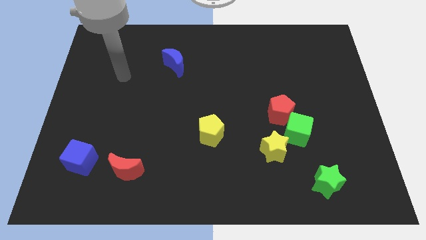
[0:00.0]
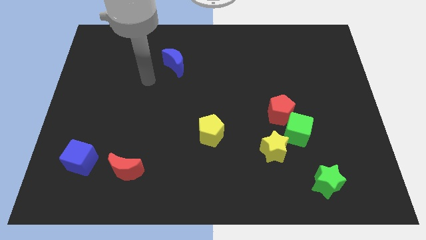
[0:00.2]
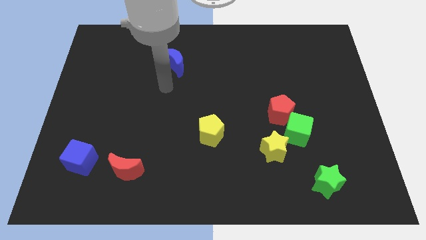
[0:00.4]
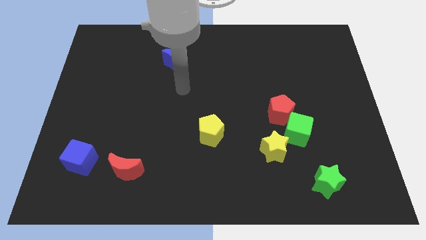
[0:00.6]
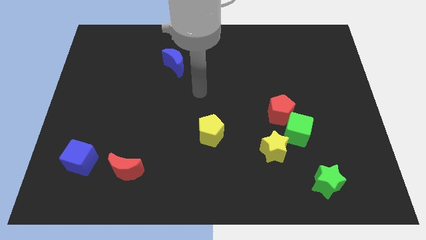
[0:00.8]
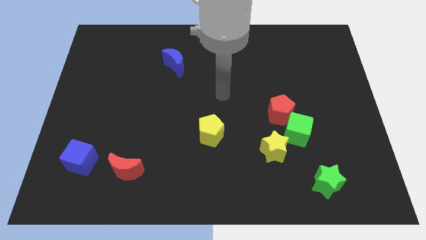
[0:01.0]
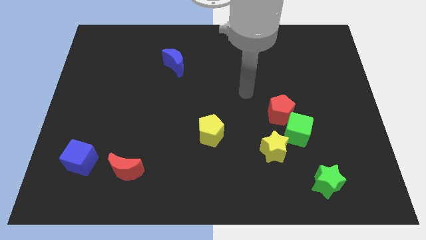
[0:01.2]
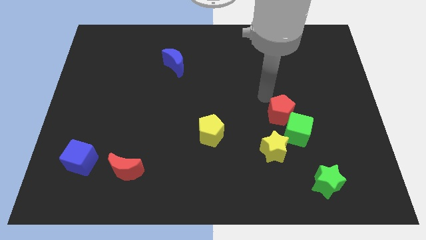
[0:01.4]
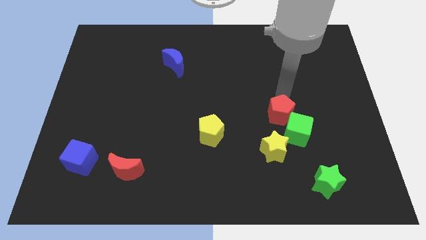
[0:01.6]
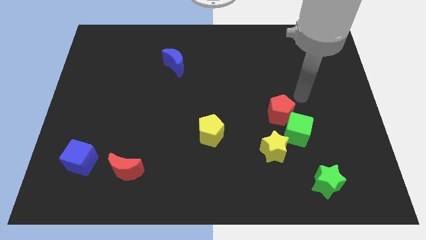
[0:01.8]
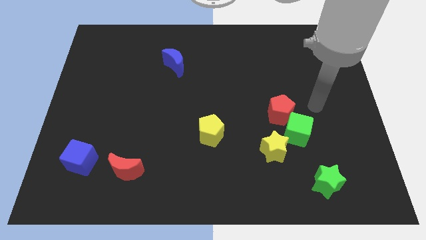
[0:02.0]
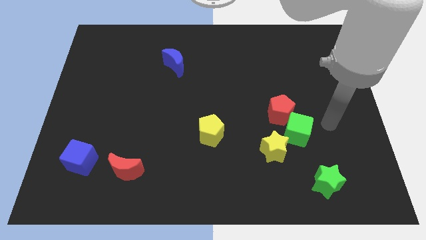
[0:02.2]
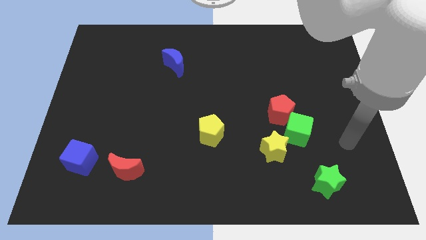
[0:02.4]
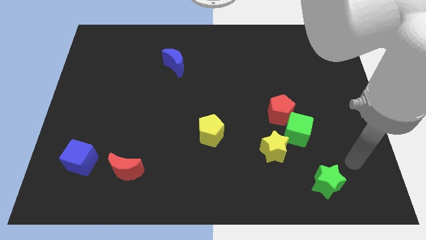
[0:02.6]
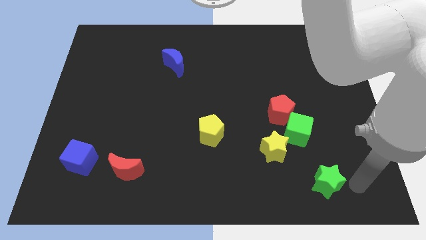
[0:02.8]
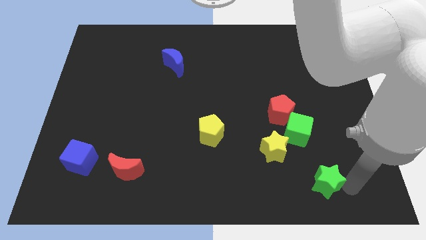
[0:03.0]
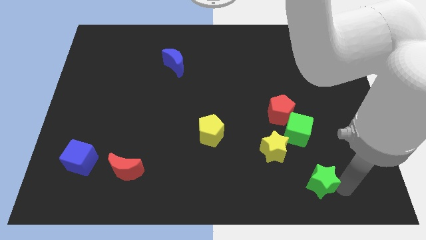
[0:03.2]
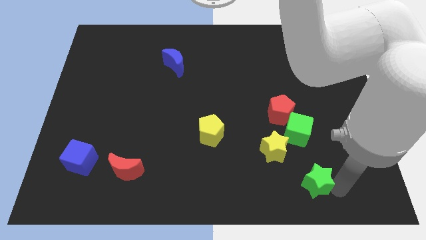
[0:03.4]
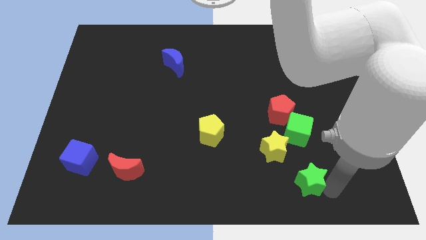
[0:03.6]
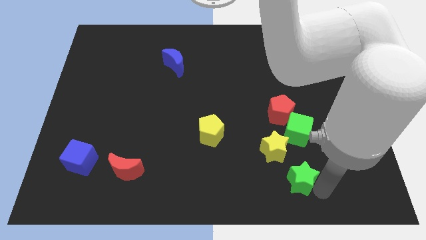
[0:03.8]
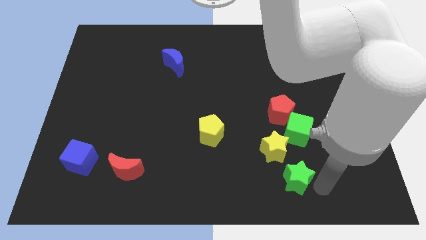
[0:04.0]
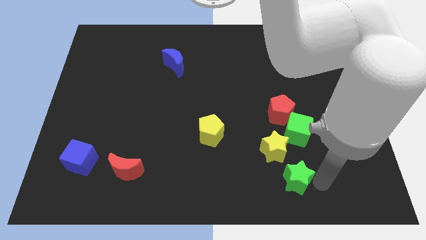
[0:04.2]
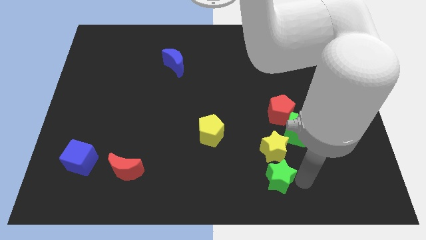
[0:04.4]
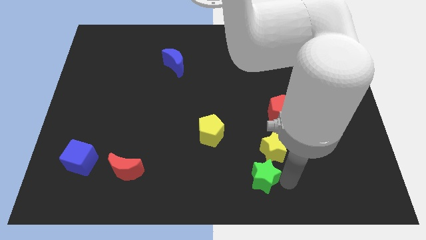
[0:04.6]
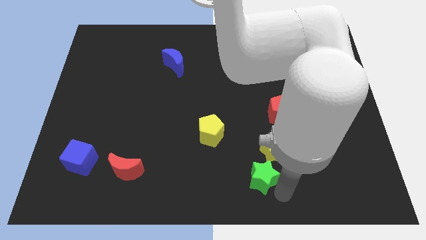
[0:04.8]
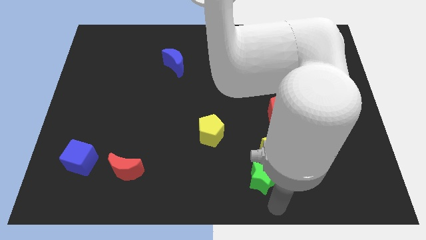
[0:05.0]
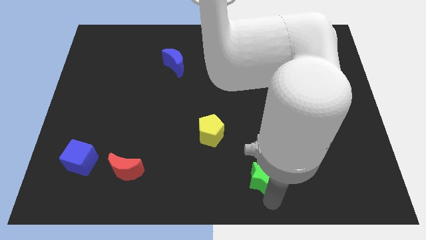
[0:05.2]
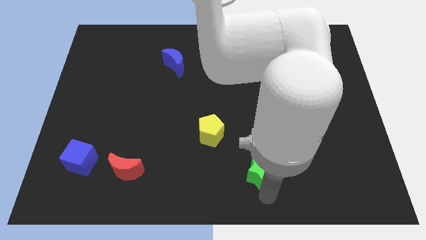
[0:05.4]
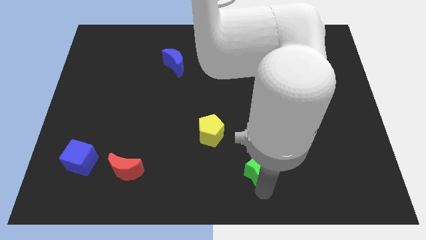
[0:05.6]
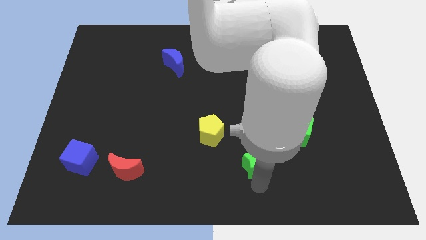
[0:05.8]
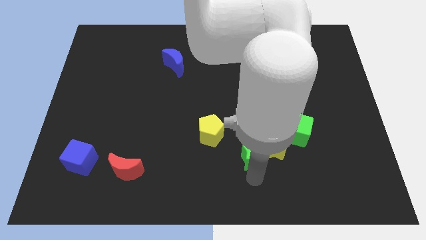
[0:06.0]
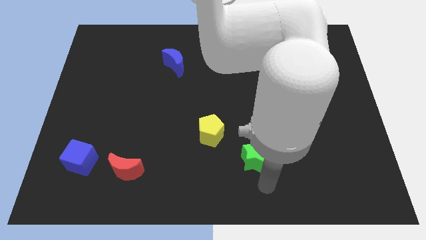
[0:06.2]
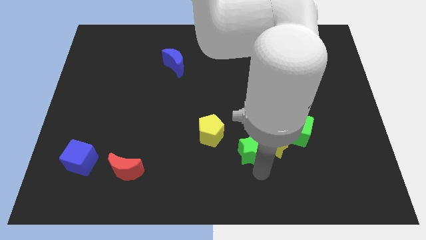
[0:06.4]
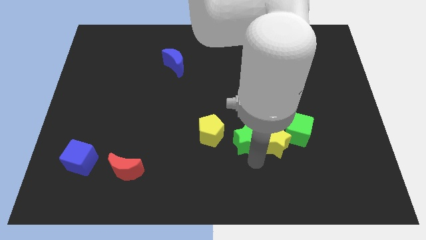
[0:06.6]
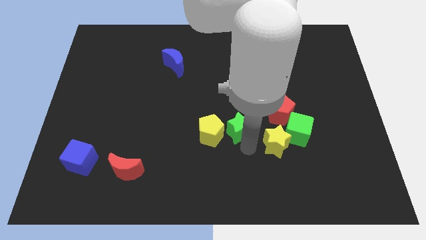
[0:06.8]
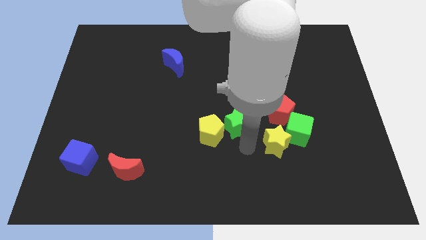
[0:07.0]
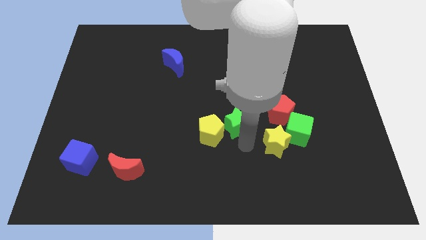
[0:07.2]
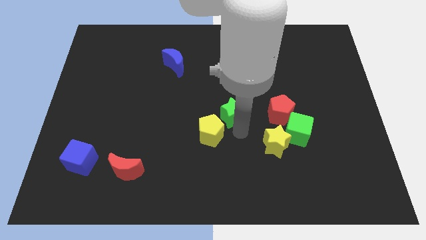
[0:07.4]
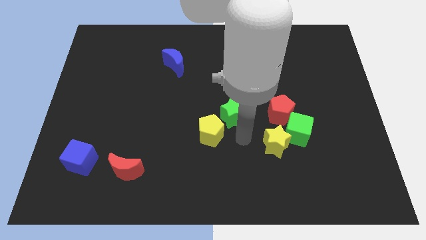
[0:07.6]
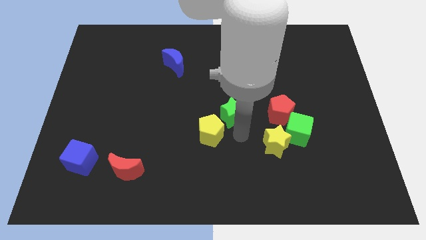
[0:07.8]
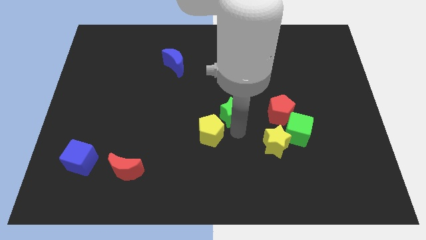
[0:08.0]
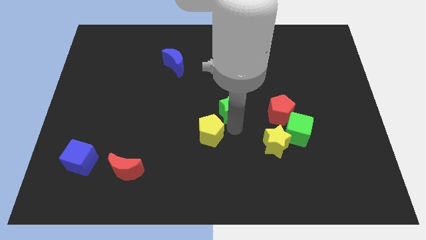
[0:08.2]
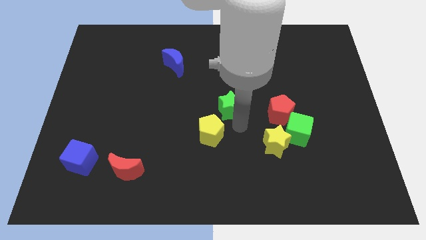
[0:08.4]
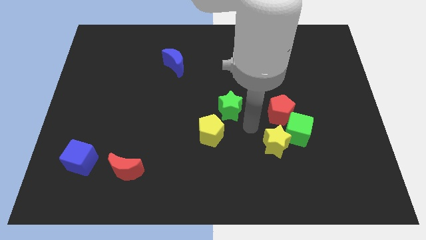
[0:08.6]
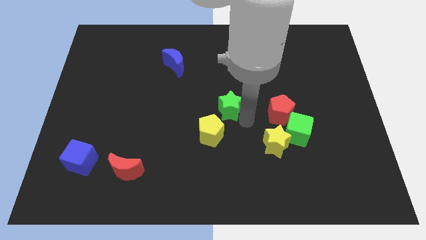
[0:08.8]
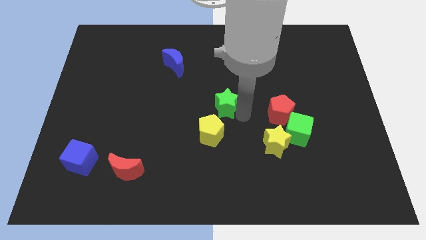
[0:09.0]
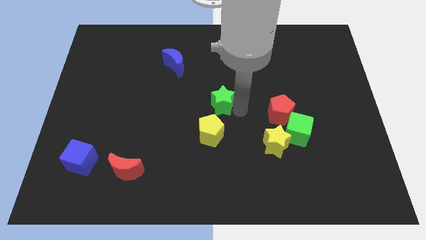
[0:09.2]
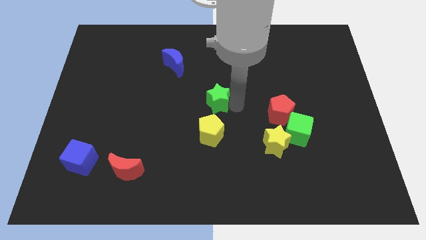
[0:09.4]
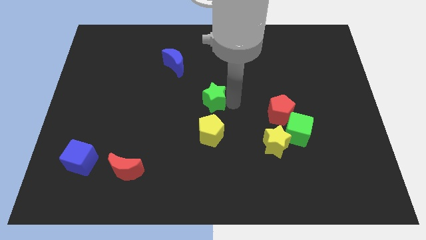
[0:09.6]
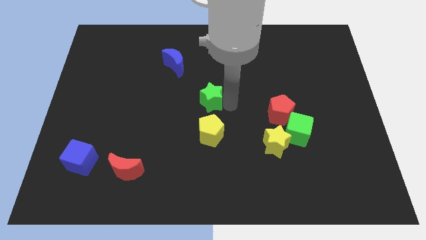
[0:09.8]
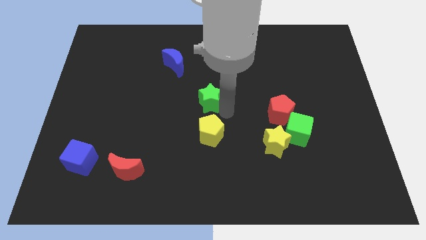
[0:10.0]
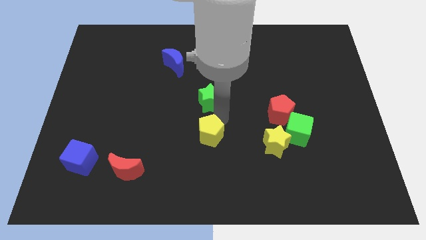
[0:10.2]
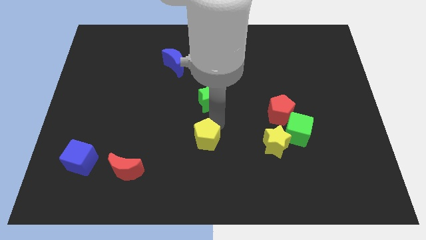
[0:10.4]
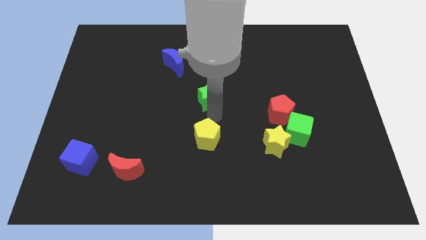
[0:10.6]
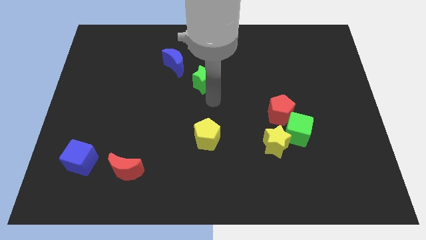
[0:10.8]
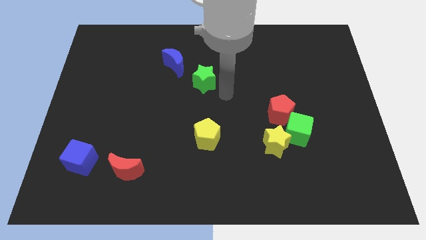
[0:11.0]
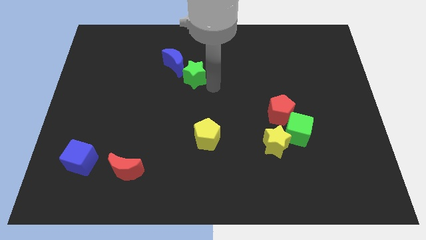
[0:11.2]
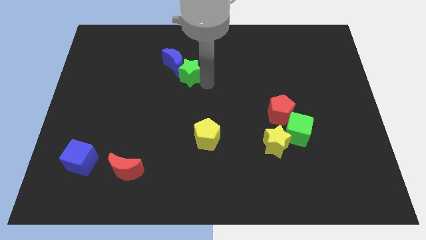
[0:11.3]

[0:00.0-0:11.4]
slide the green star next to the blue moon

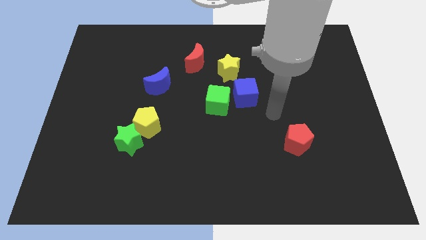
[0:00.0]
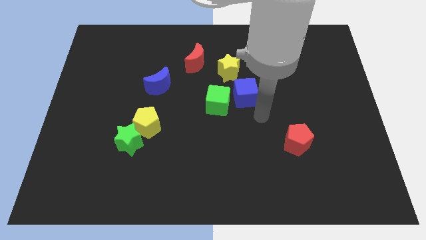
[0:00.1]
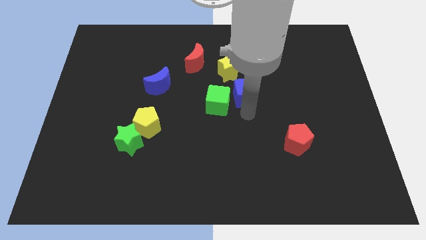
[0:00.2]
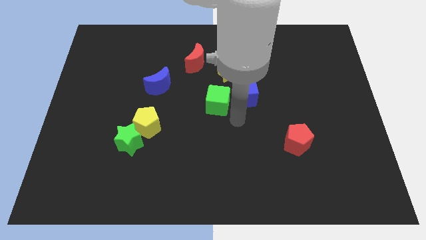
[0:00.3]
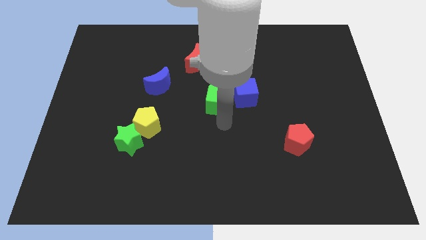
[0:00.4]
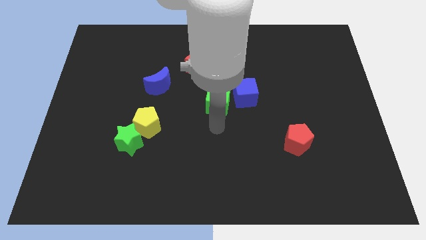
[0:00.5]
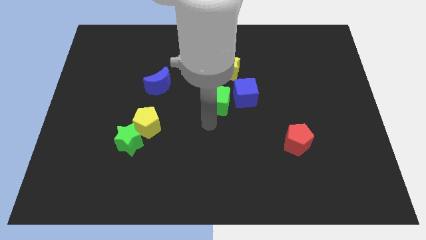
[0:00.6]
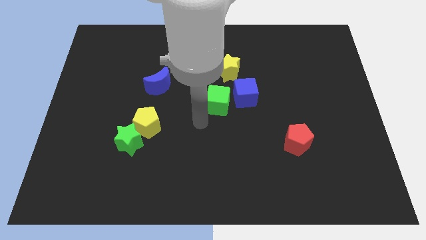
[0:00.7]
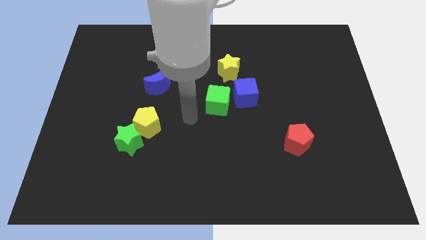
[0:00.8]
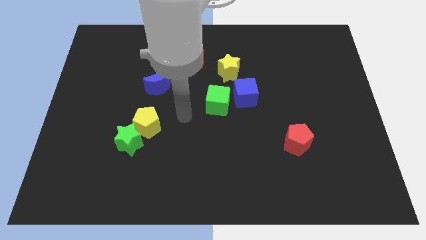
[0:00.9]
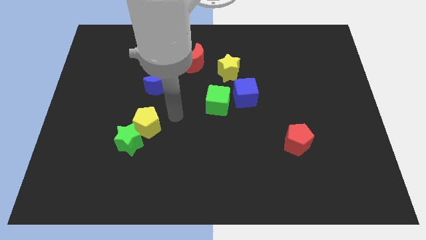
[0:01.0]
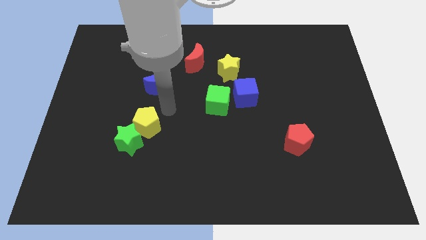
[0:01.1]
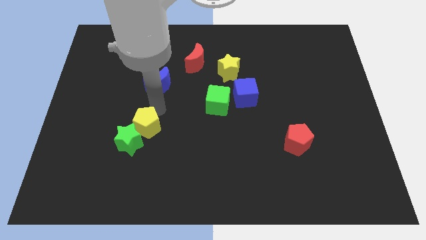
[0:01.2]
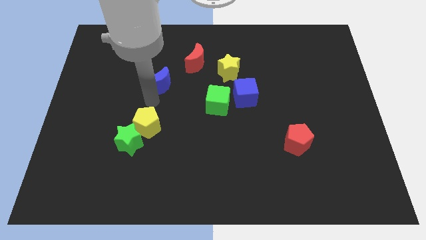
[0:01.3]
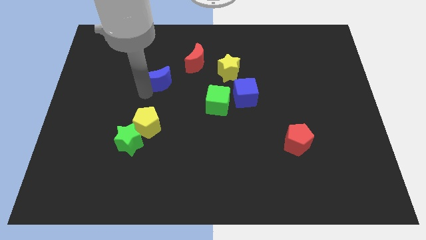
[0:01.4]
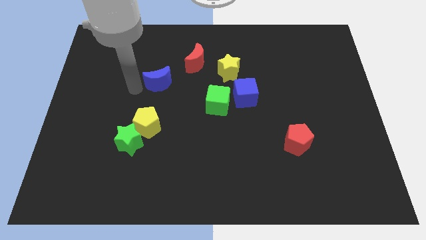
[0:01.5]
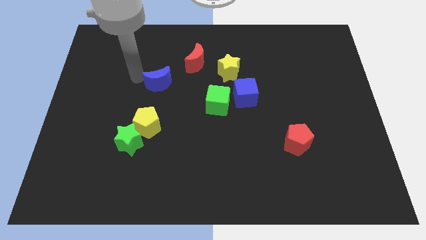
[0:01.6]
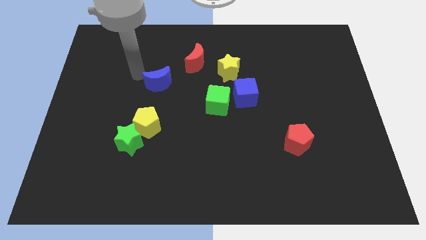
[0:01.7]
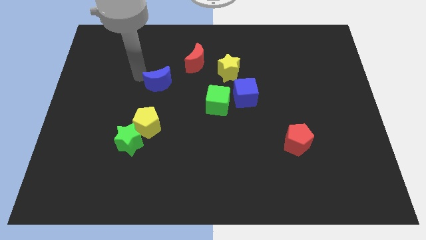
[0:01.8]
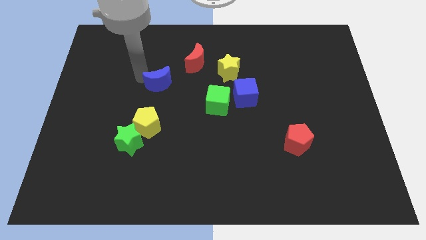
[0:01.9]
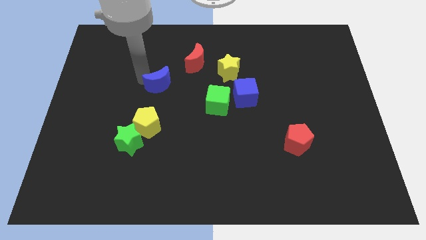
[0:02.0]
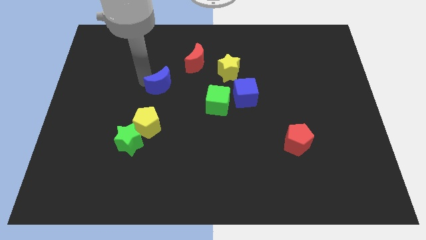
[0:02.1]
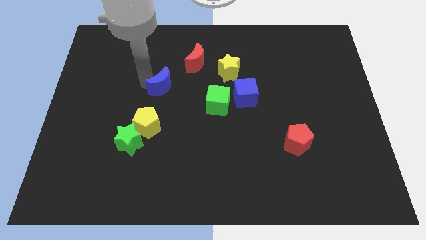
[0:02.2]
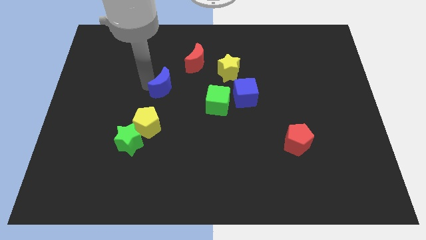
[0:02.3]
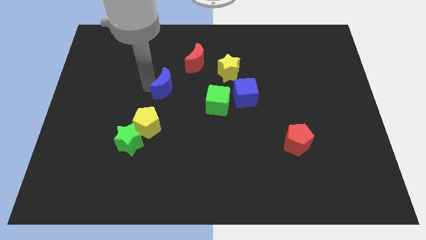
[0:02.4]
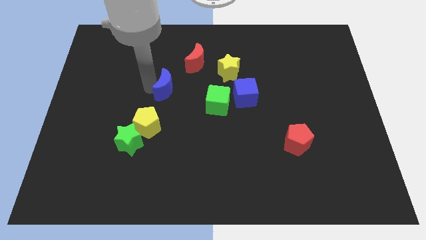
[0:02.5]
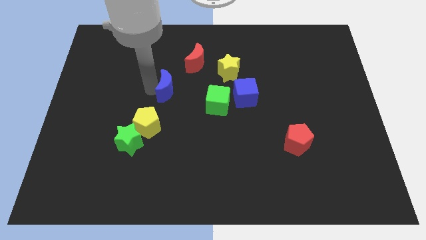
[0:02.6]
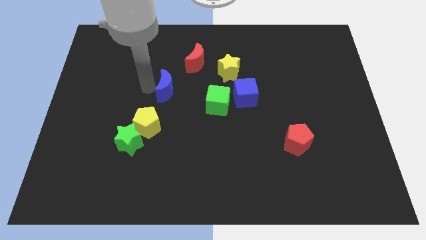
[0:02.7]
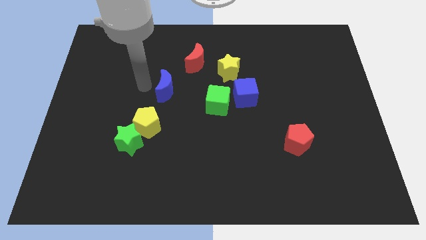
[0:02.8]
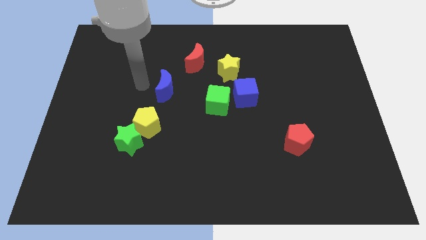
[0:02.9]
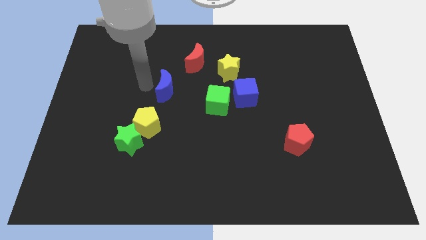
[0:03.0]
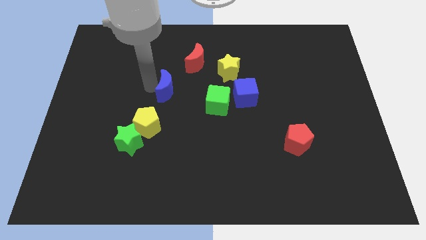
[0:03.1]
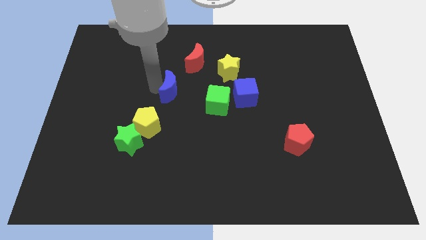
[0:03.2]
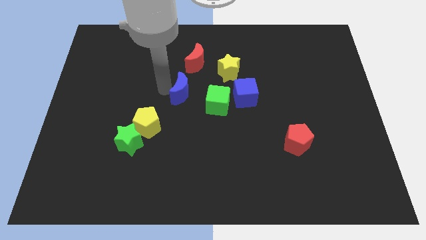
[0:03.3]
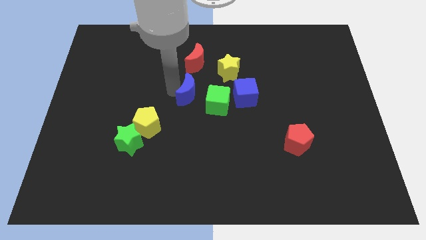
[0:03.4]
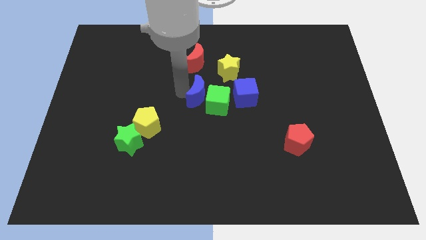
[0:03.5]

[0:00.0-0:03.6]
push the blue moon close to the green cube
